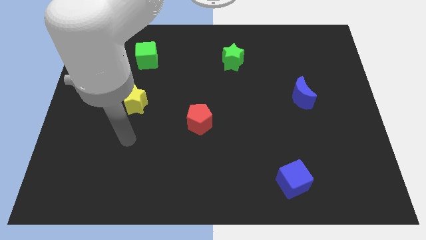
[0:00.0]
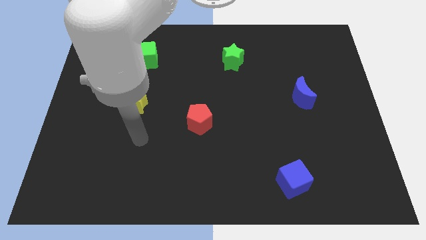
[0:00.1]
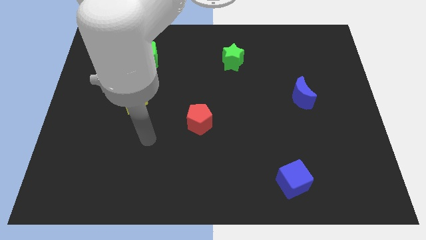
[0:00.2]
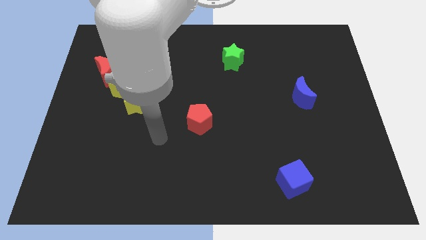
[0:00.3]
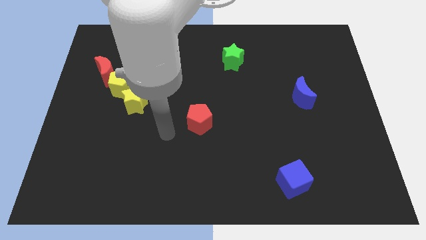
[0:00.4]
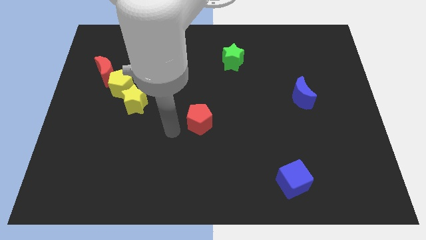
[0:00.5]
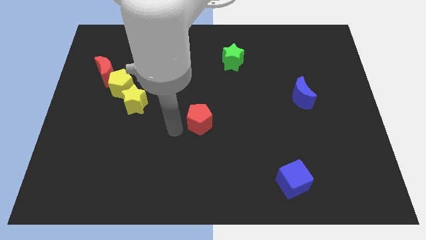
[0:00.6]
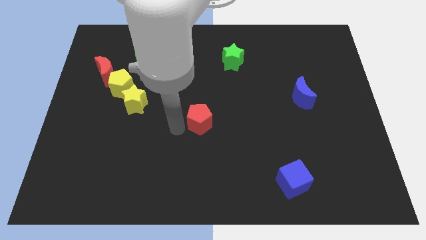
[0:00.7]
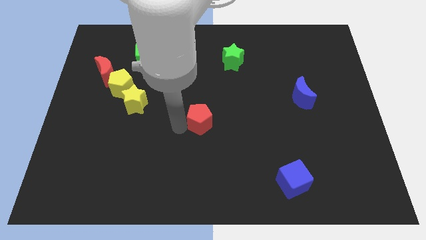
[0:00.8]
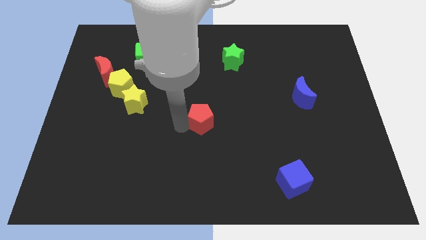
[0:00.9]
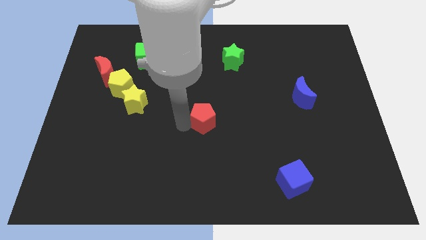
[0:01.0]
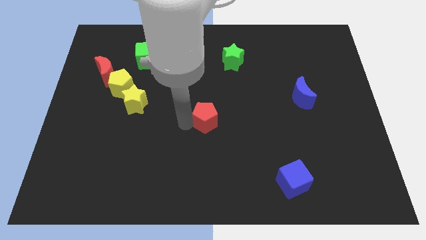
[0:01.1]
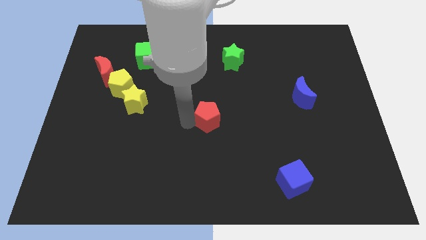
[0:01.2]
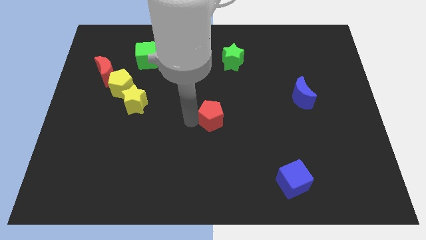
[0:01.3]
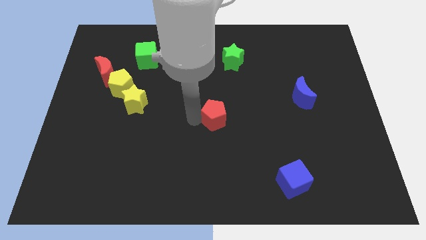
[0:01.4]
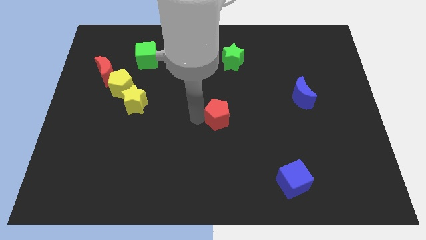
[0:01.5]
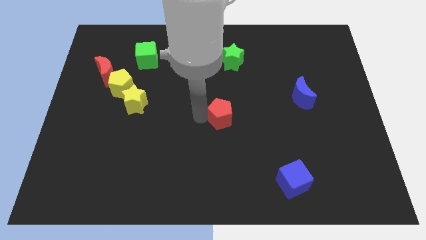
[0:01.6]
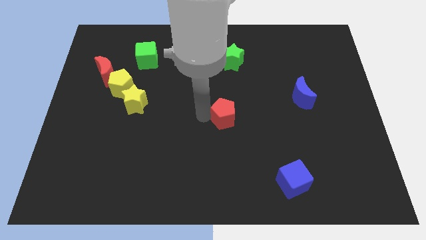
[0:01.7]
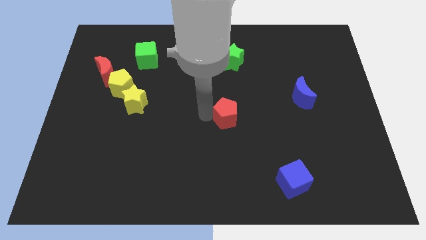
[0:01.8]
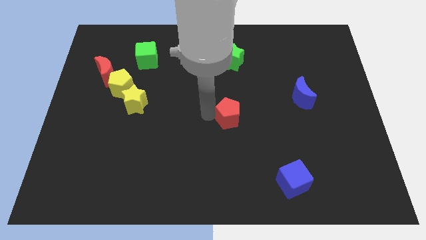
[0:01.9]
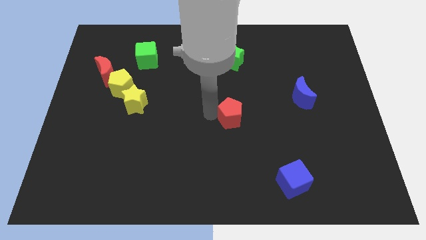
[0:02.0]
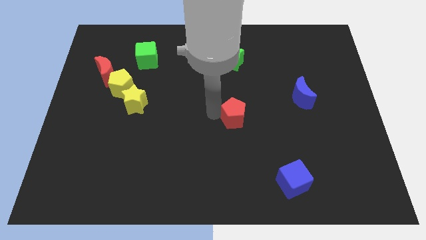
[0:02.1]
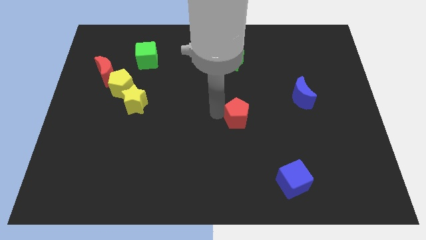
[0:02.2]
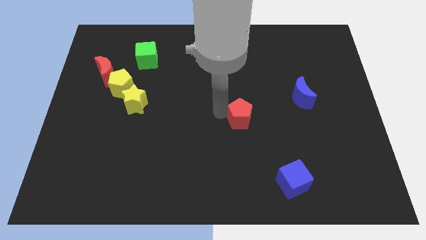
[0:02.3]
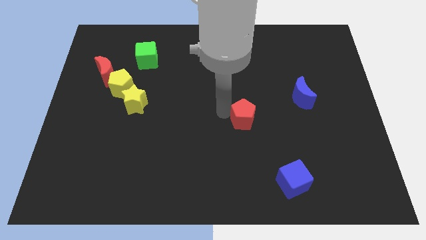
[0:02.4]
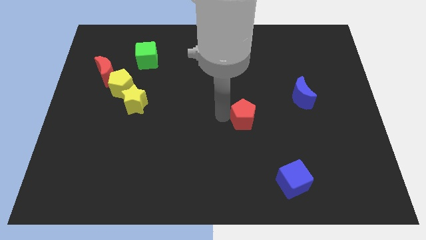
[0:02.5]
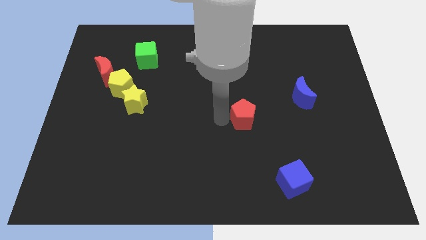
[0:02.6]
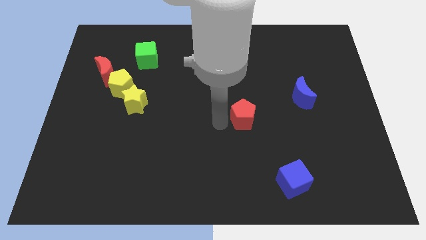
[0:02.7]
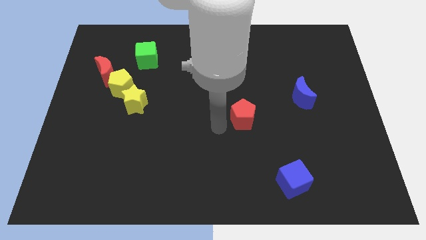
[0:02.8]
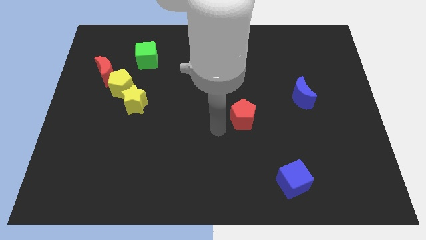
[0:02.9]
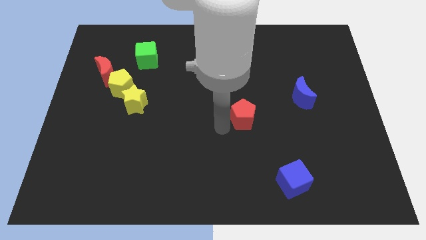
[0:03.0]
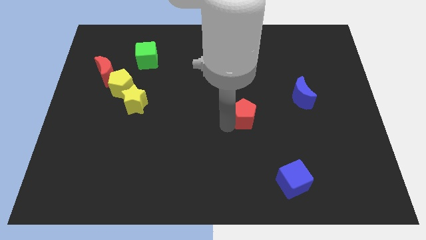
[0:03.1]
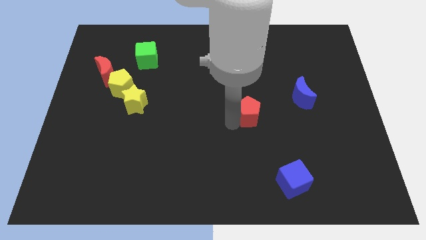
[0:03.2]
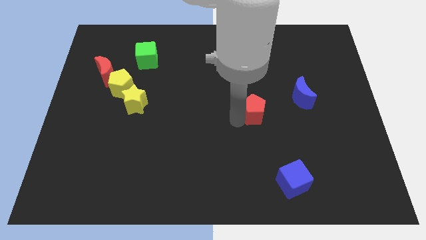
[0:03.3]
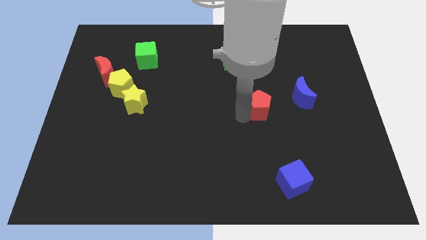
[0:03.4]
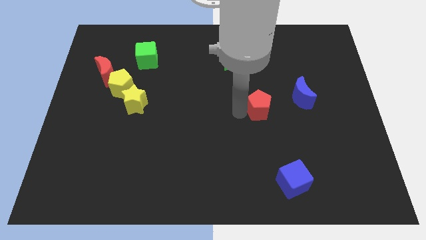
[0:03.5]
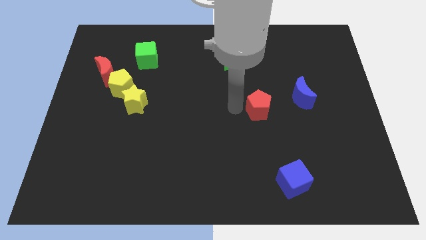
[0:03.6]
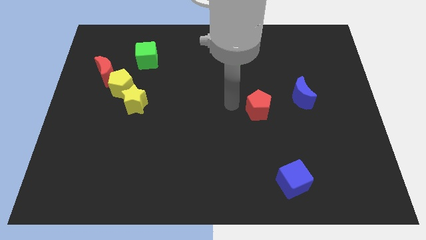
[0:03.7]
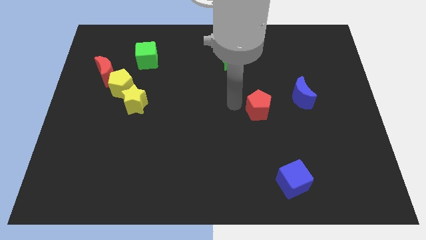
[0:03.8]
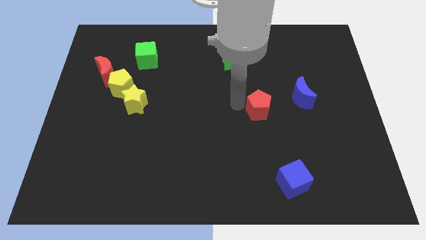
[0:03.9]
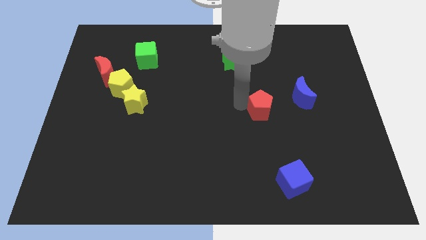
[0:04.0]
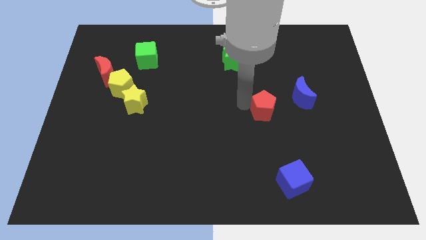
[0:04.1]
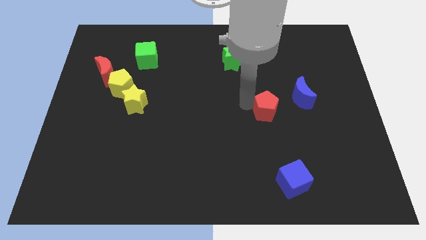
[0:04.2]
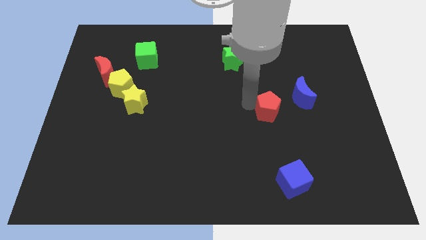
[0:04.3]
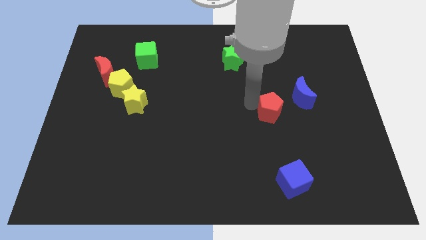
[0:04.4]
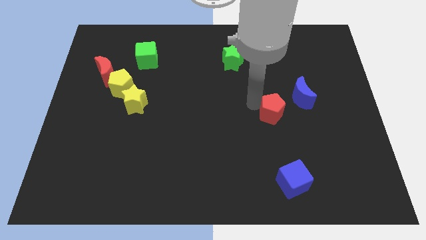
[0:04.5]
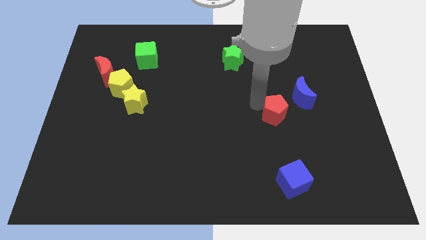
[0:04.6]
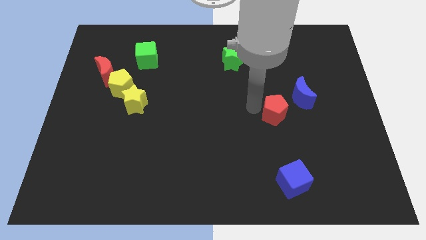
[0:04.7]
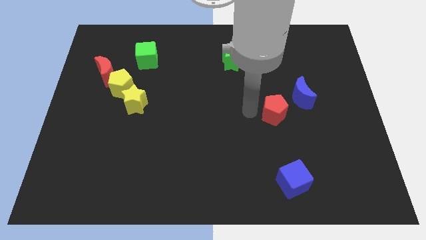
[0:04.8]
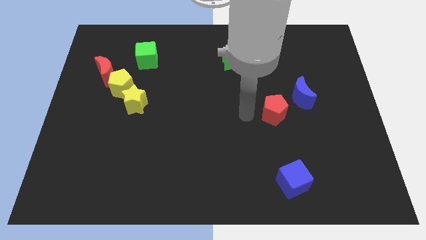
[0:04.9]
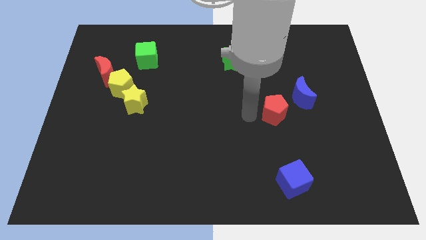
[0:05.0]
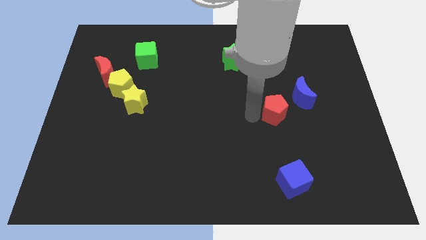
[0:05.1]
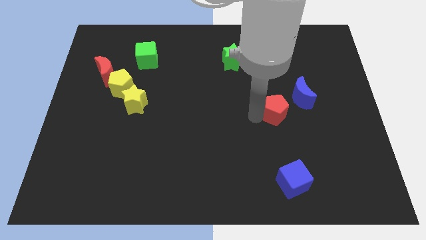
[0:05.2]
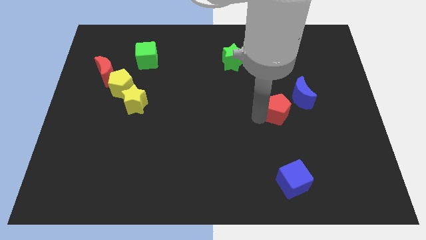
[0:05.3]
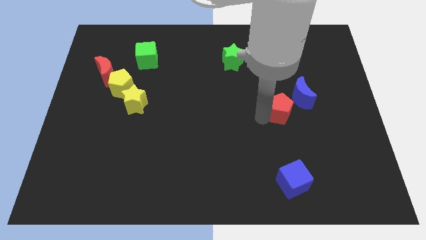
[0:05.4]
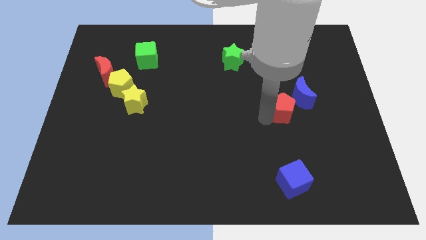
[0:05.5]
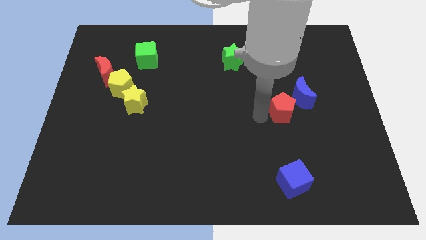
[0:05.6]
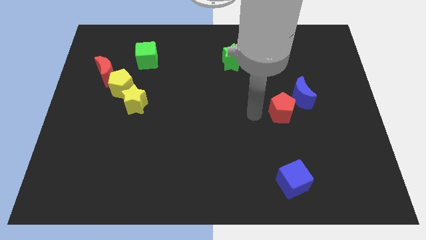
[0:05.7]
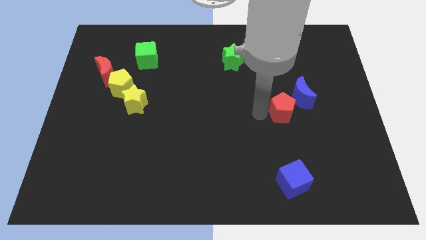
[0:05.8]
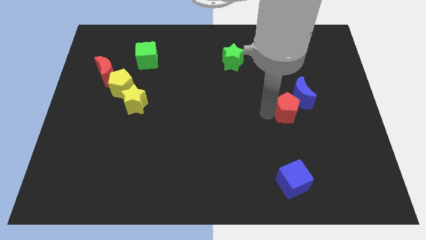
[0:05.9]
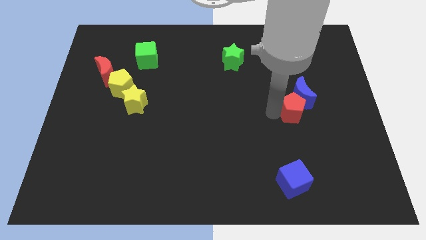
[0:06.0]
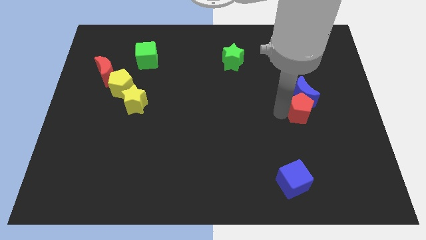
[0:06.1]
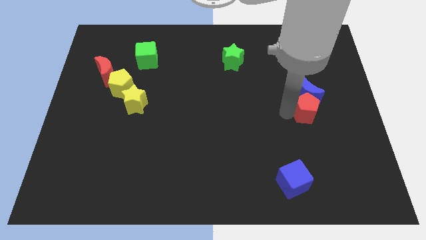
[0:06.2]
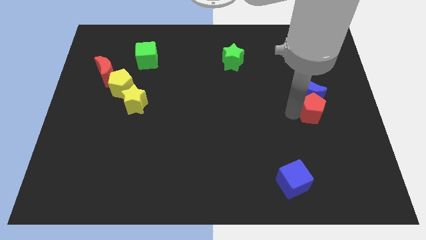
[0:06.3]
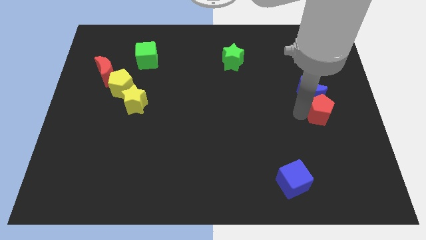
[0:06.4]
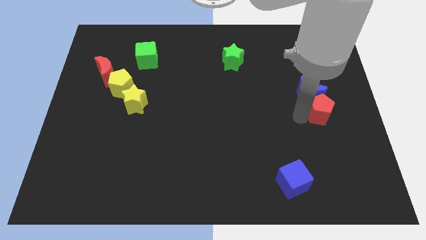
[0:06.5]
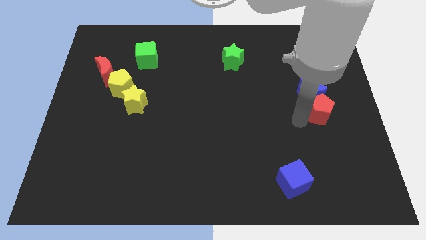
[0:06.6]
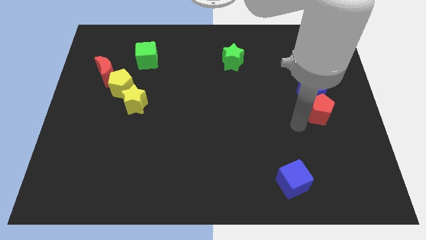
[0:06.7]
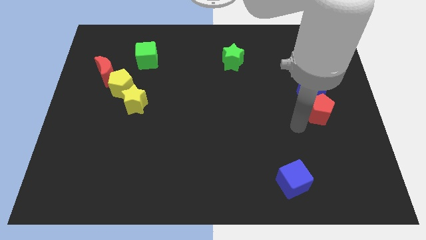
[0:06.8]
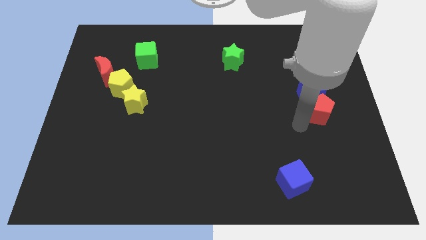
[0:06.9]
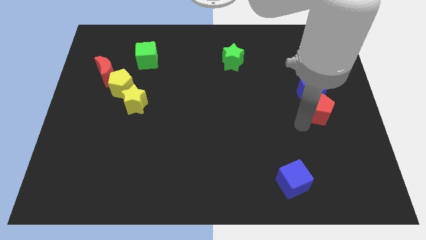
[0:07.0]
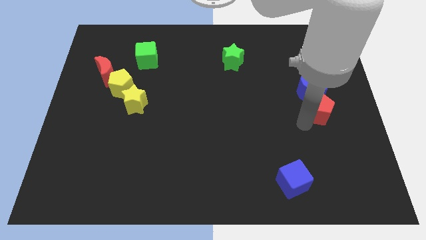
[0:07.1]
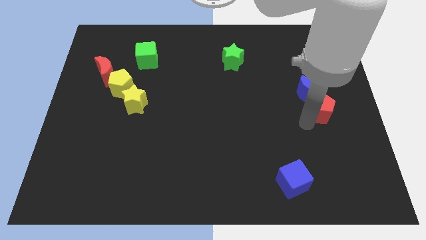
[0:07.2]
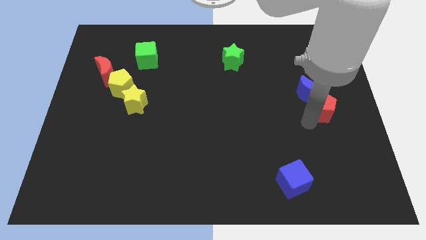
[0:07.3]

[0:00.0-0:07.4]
slide the red pentagon to the right side of the board
